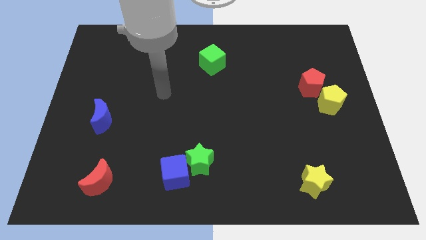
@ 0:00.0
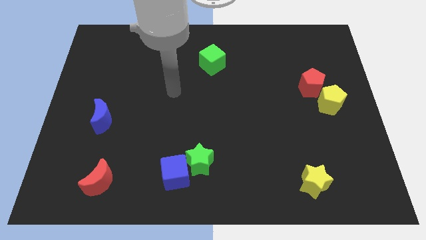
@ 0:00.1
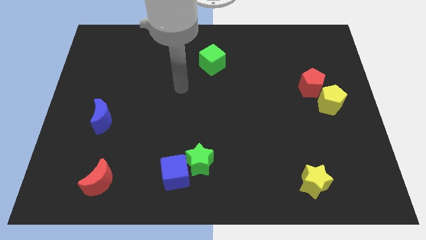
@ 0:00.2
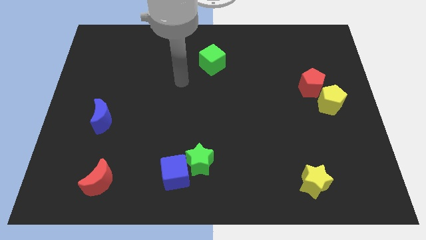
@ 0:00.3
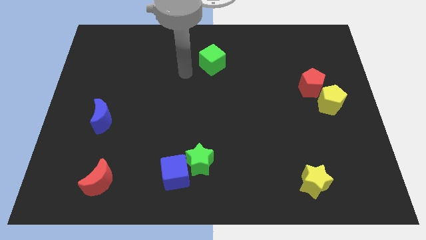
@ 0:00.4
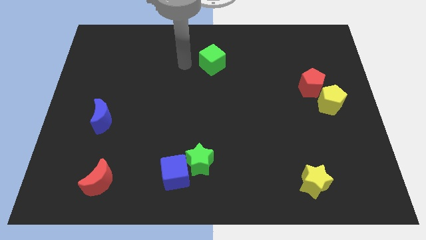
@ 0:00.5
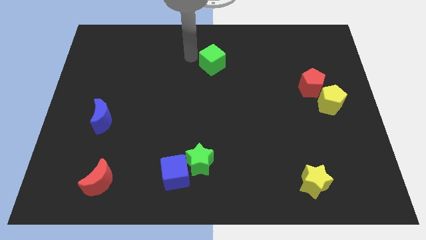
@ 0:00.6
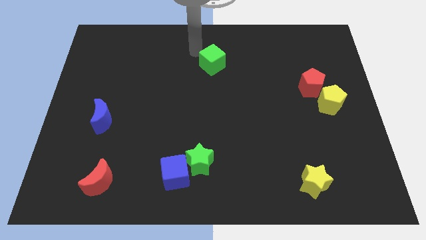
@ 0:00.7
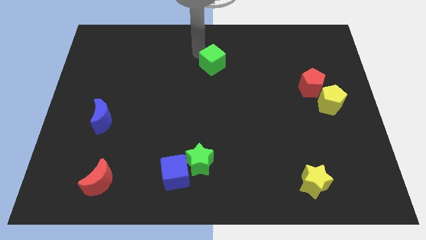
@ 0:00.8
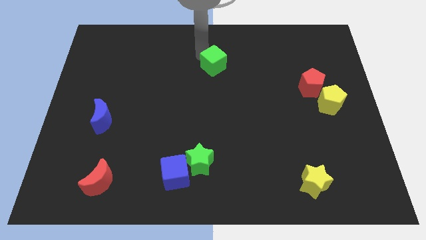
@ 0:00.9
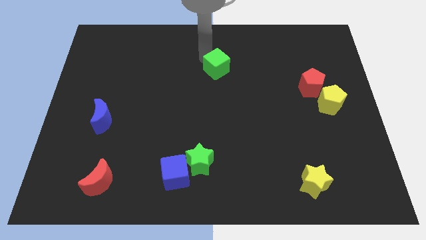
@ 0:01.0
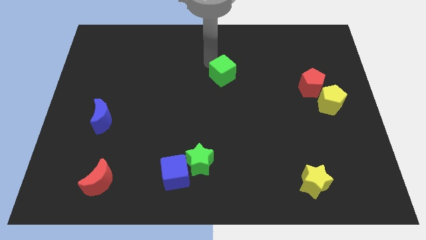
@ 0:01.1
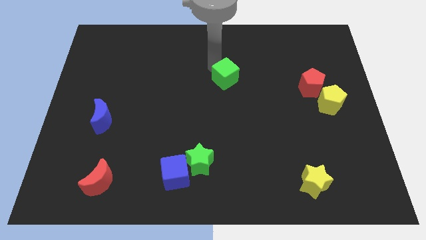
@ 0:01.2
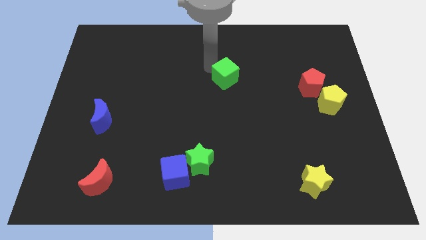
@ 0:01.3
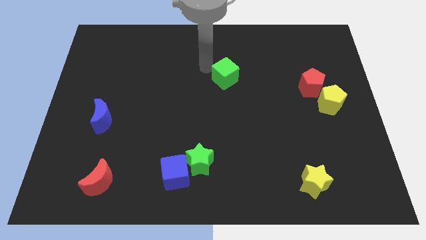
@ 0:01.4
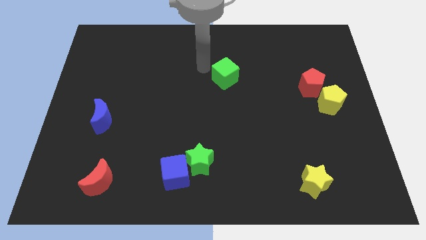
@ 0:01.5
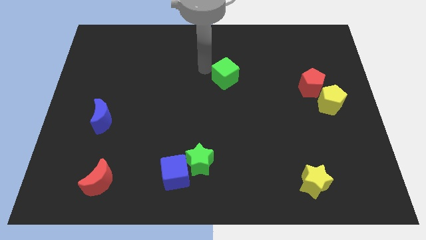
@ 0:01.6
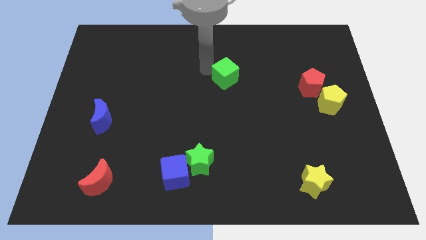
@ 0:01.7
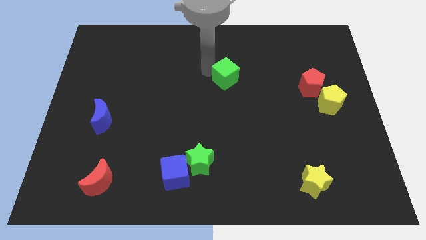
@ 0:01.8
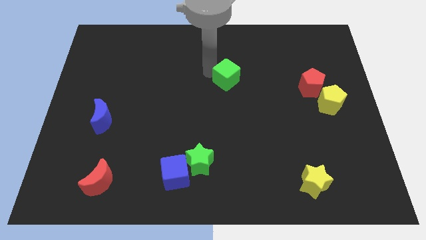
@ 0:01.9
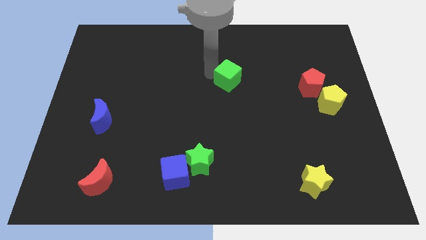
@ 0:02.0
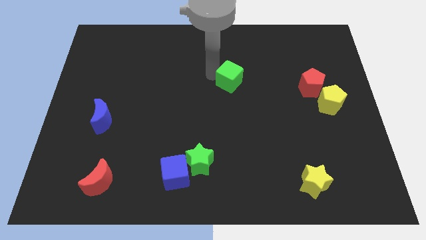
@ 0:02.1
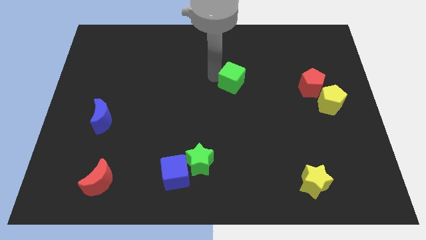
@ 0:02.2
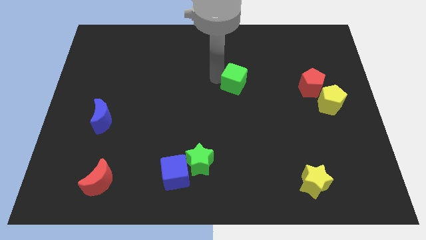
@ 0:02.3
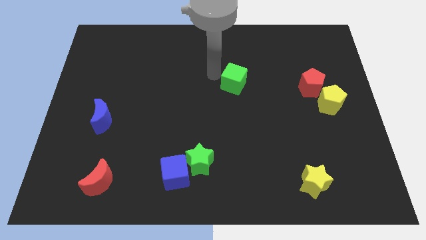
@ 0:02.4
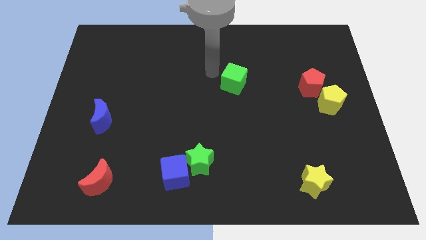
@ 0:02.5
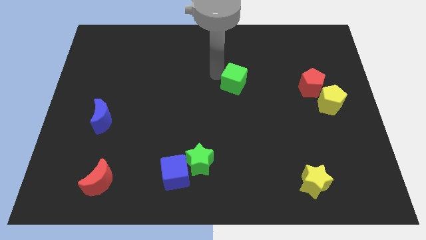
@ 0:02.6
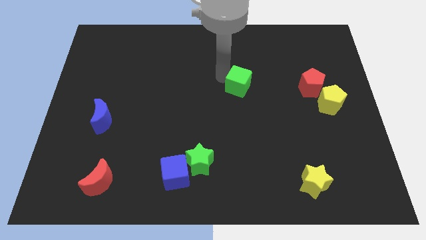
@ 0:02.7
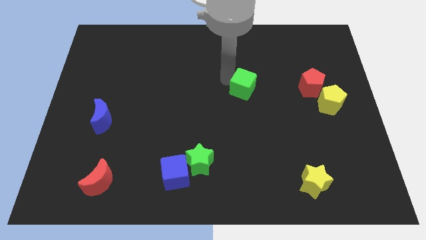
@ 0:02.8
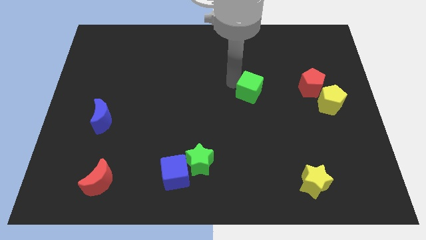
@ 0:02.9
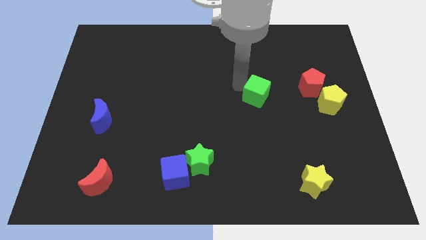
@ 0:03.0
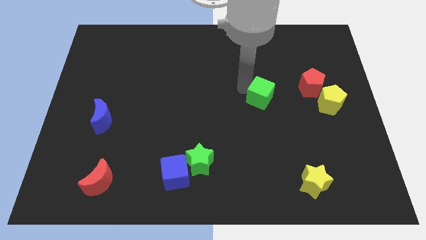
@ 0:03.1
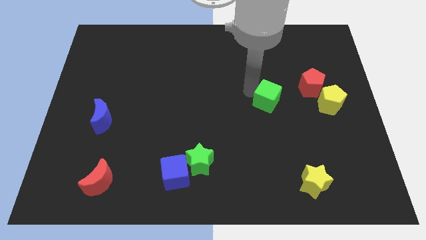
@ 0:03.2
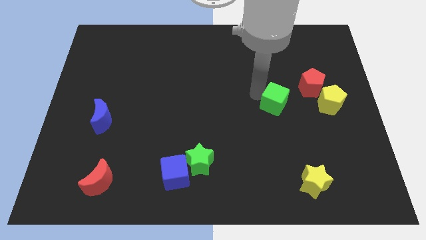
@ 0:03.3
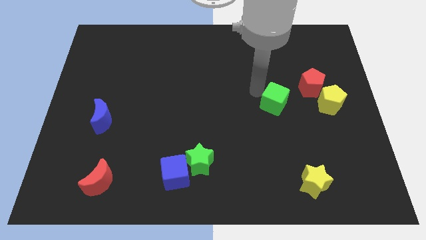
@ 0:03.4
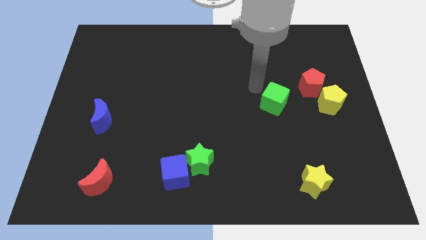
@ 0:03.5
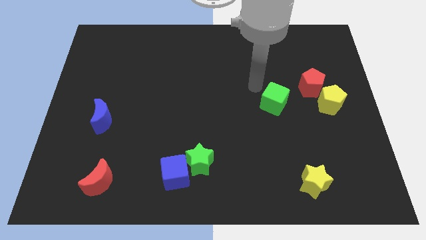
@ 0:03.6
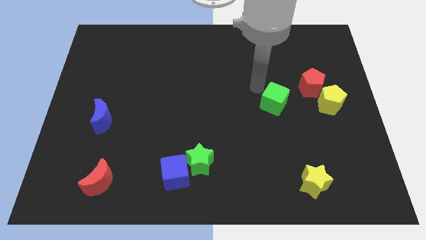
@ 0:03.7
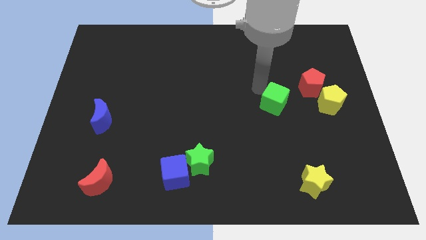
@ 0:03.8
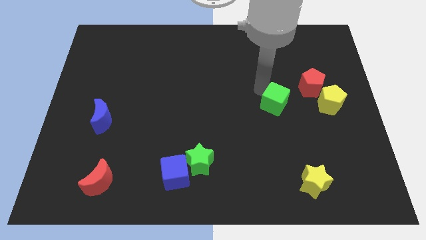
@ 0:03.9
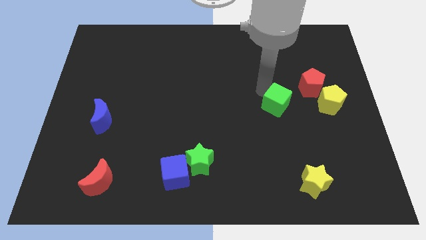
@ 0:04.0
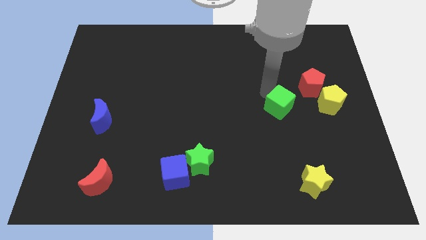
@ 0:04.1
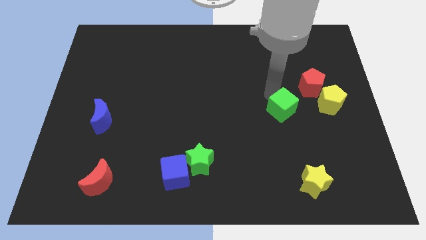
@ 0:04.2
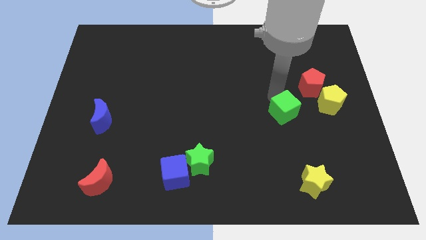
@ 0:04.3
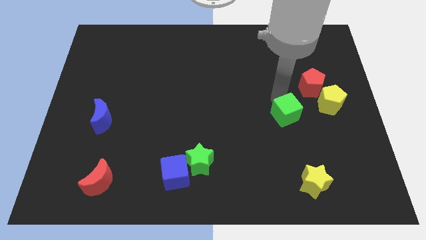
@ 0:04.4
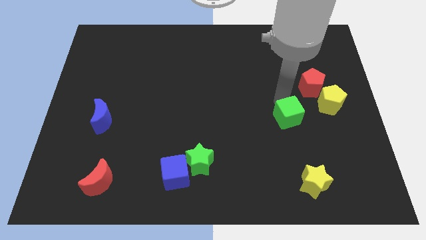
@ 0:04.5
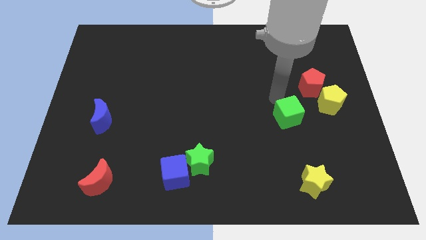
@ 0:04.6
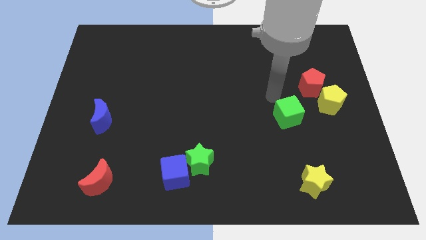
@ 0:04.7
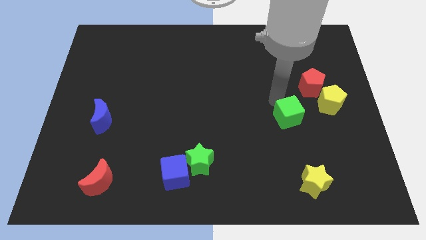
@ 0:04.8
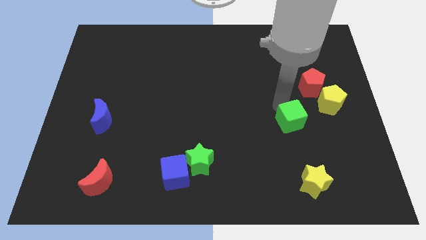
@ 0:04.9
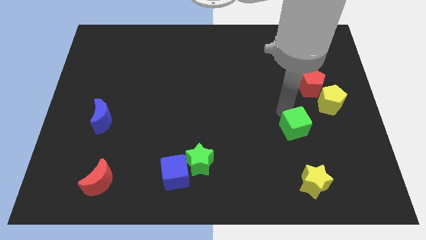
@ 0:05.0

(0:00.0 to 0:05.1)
slide the green cube to the top side of the yellow star

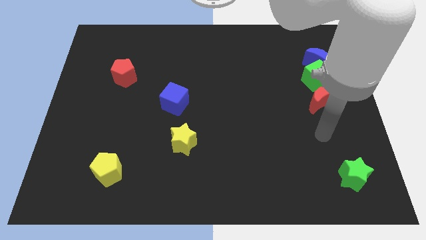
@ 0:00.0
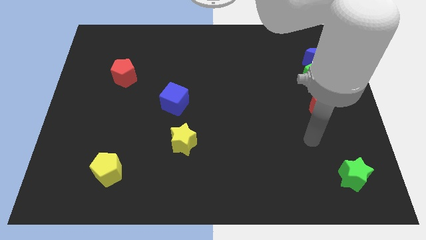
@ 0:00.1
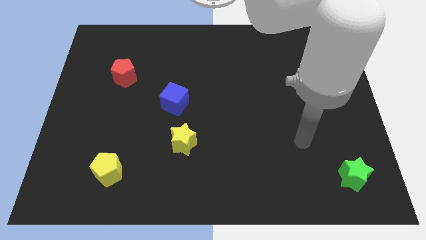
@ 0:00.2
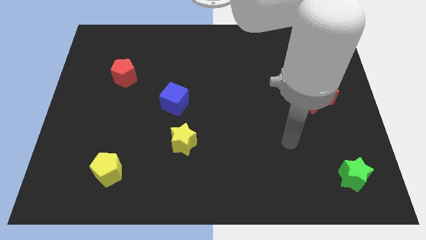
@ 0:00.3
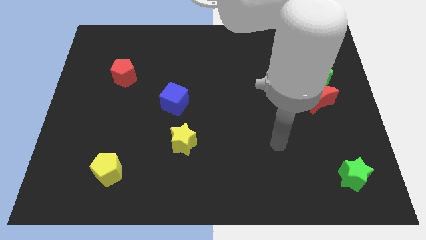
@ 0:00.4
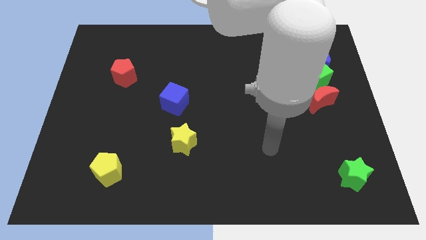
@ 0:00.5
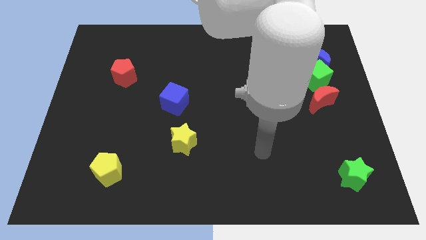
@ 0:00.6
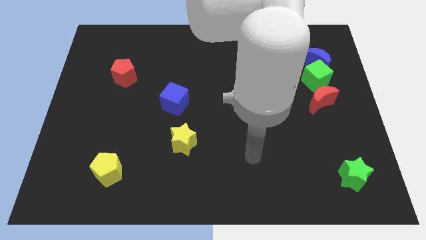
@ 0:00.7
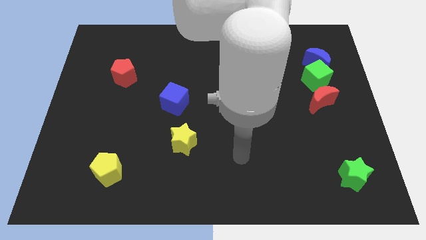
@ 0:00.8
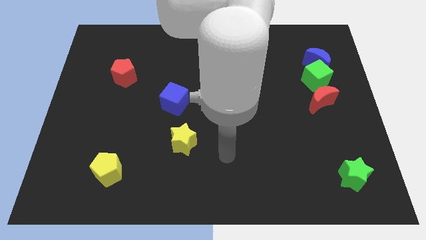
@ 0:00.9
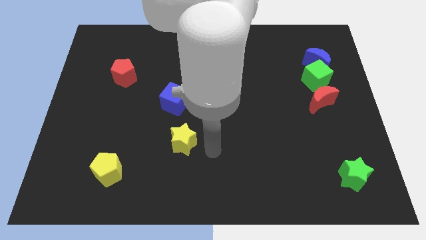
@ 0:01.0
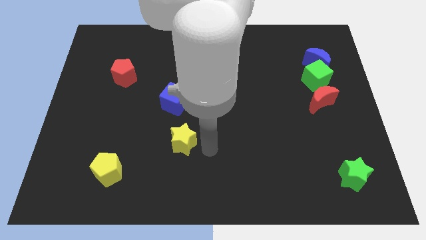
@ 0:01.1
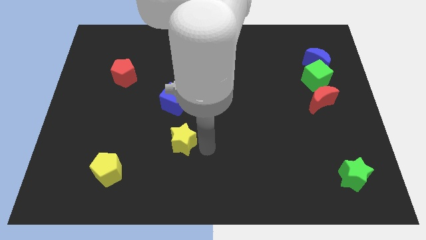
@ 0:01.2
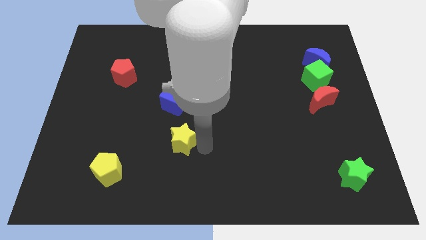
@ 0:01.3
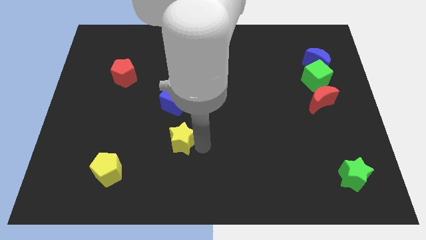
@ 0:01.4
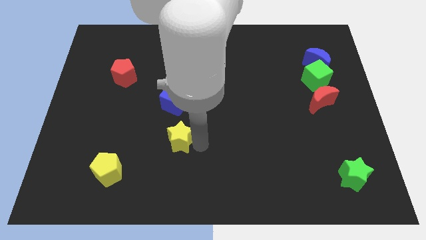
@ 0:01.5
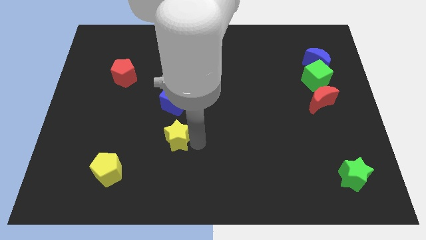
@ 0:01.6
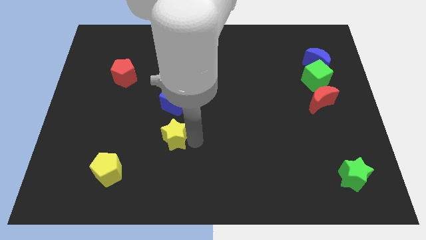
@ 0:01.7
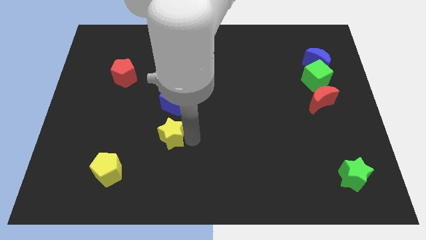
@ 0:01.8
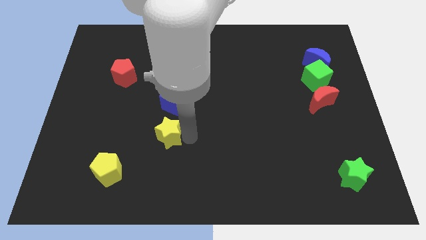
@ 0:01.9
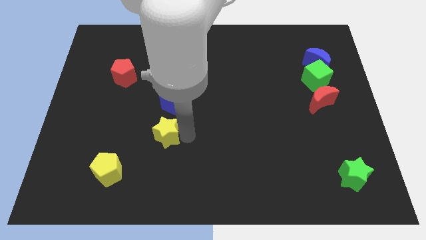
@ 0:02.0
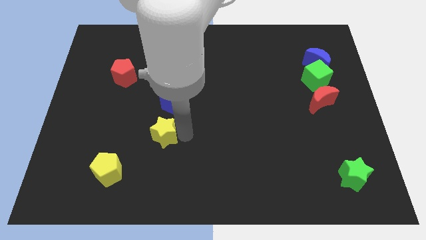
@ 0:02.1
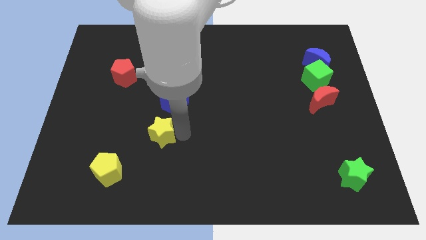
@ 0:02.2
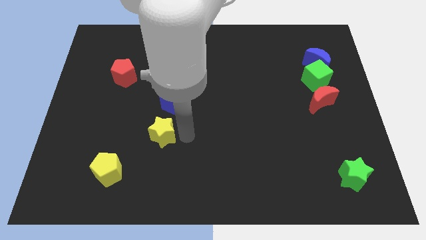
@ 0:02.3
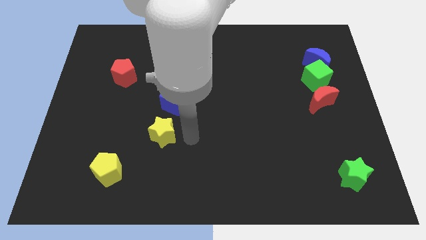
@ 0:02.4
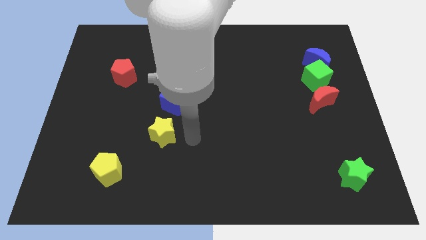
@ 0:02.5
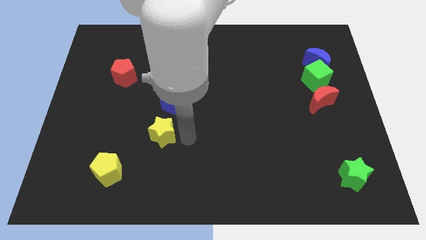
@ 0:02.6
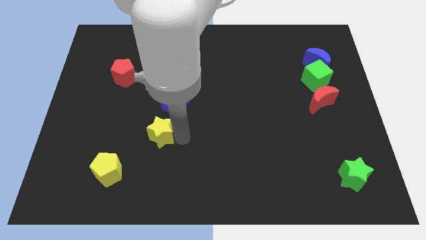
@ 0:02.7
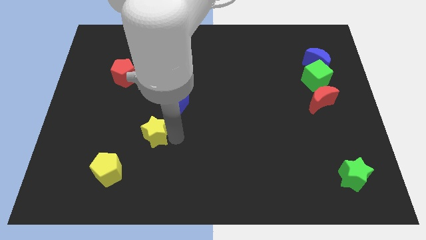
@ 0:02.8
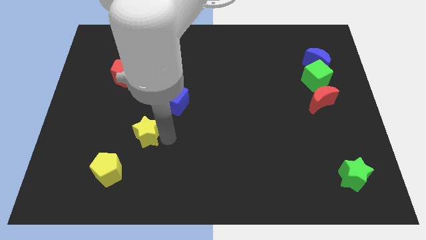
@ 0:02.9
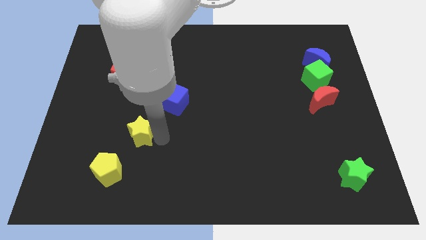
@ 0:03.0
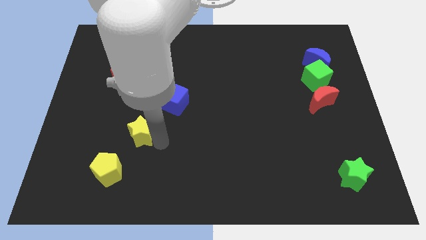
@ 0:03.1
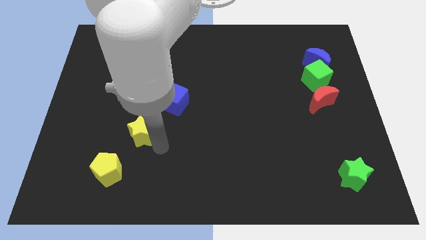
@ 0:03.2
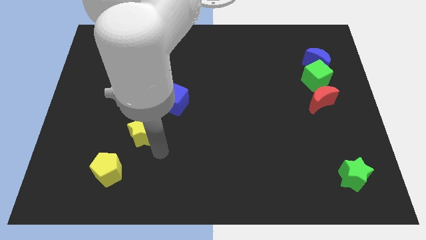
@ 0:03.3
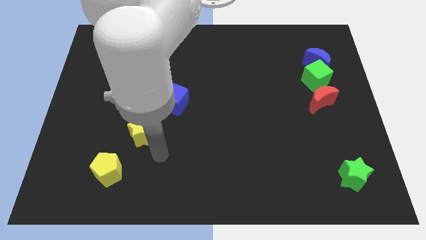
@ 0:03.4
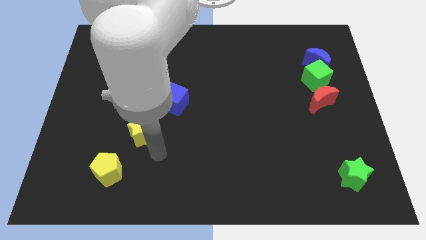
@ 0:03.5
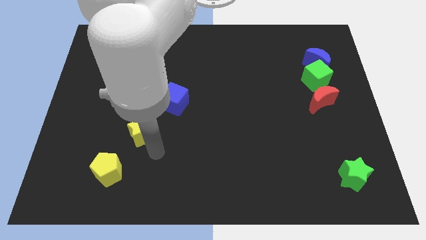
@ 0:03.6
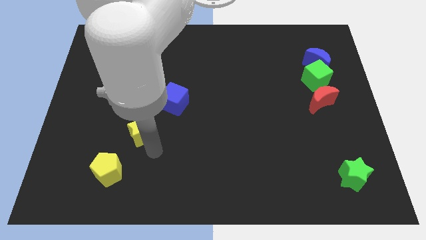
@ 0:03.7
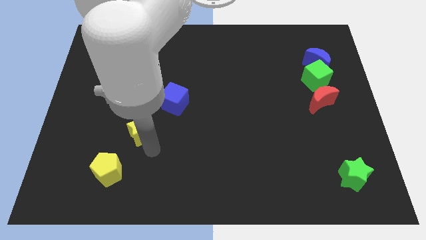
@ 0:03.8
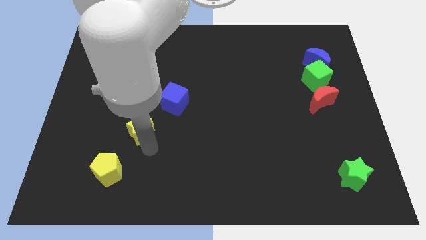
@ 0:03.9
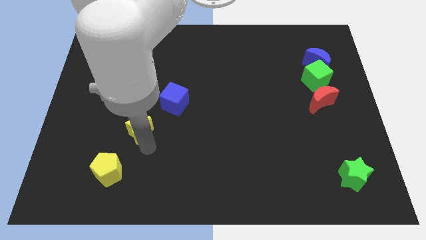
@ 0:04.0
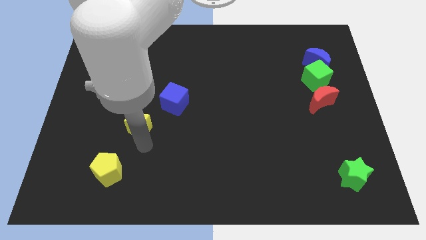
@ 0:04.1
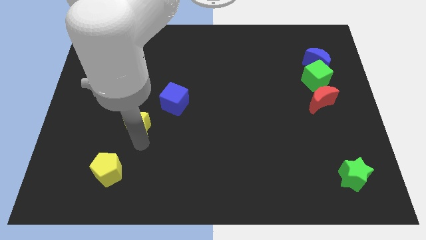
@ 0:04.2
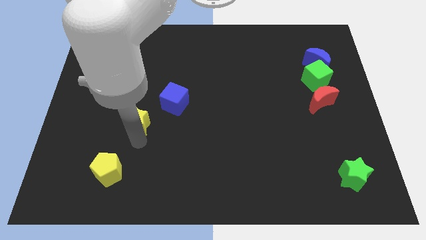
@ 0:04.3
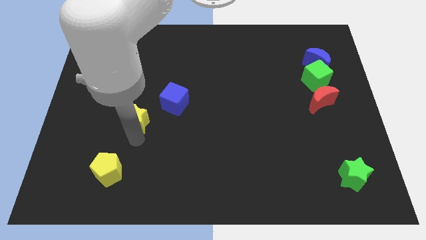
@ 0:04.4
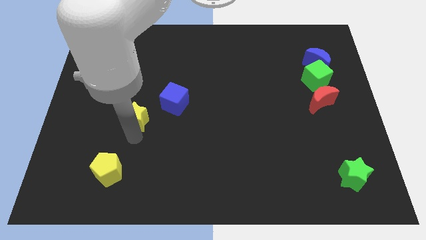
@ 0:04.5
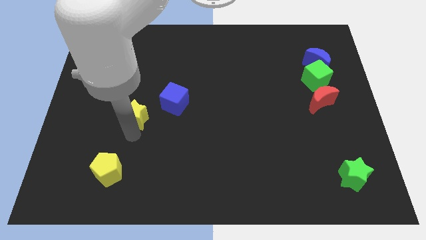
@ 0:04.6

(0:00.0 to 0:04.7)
slide the yellow star to the bottom of the red pentagon
